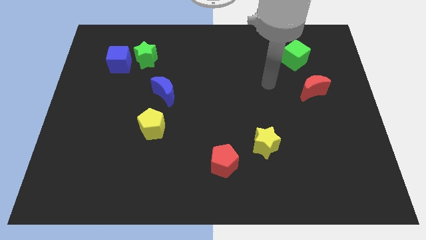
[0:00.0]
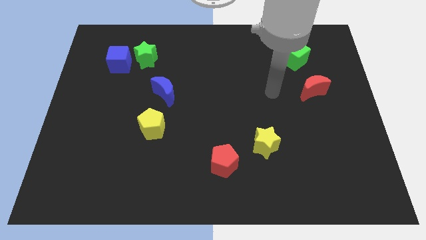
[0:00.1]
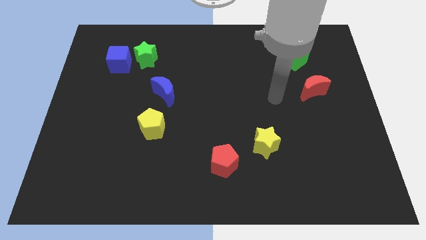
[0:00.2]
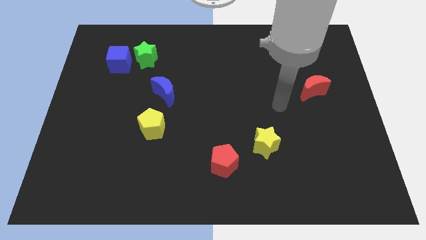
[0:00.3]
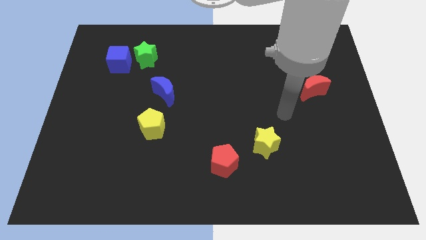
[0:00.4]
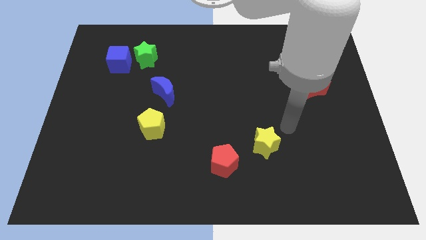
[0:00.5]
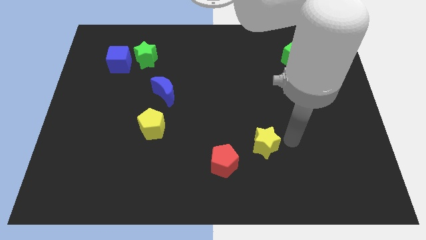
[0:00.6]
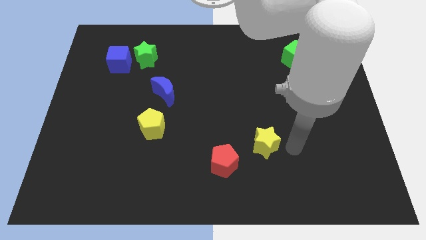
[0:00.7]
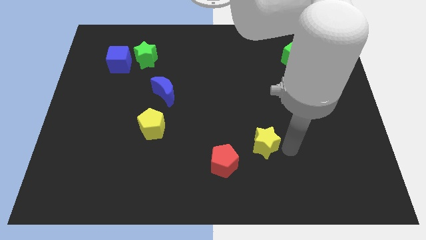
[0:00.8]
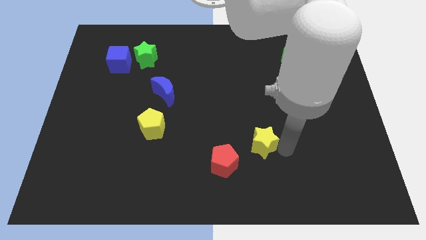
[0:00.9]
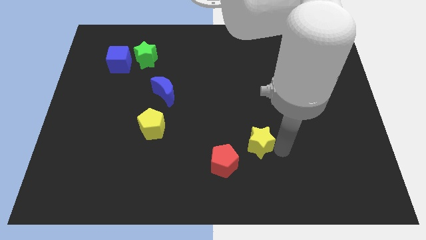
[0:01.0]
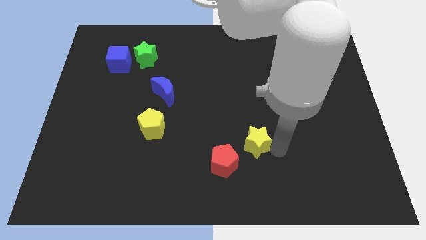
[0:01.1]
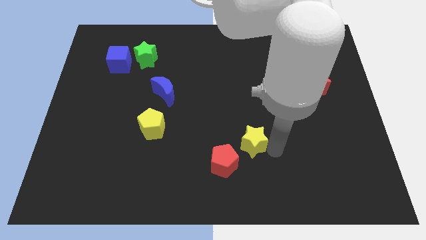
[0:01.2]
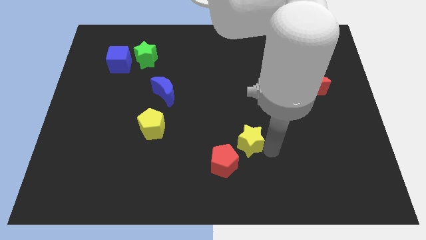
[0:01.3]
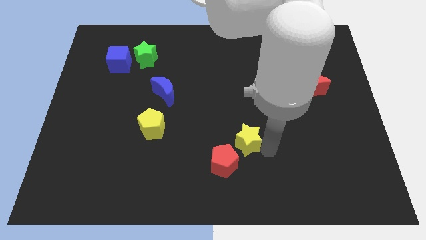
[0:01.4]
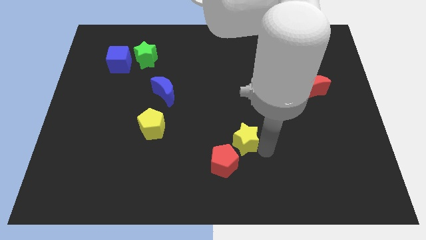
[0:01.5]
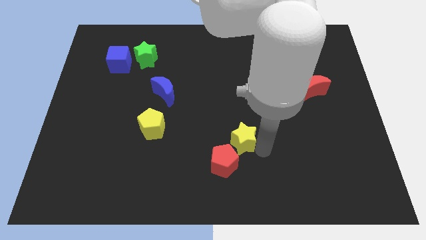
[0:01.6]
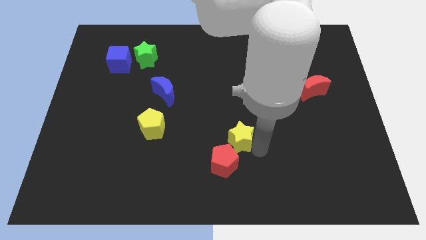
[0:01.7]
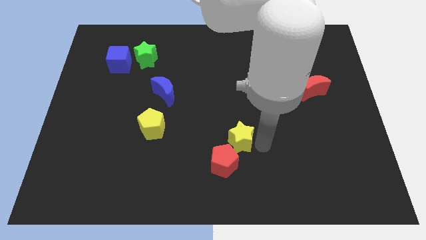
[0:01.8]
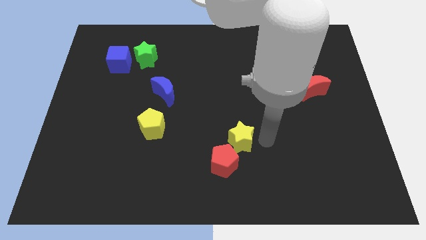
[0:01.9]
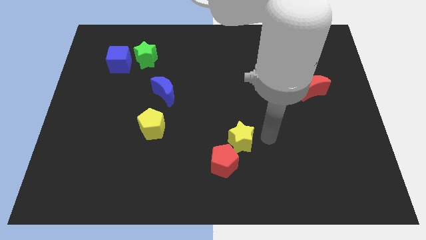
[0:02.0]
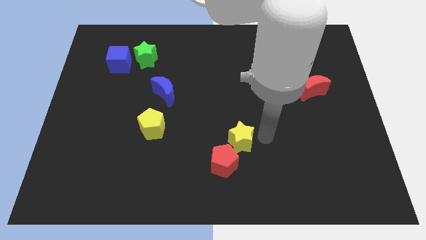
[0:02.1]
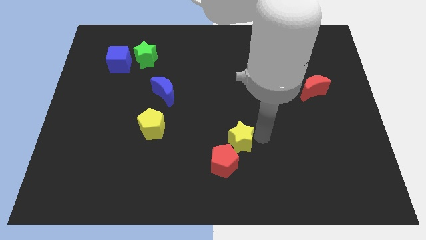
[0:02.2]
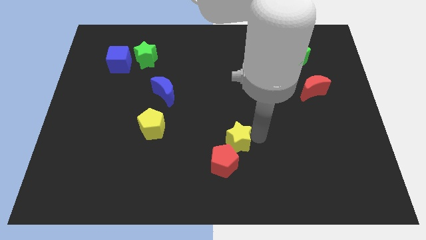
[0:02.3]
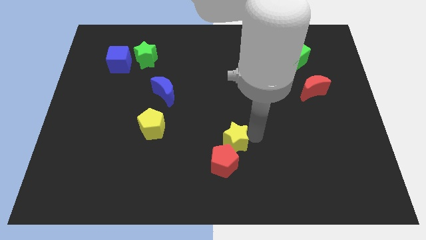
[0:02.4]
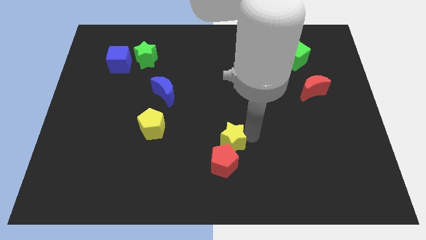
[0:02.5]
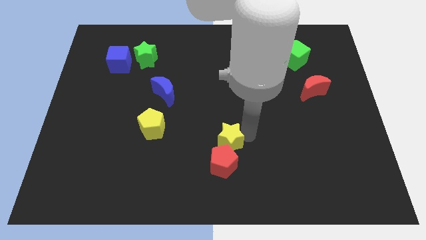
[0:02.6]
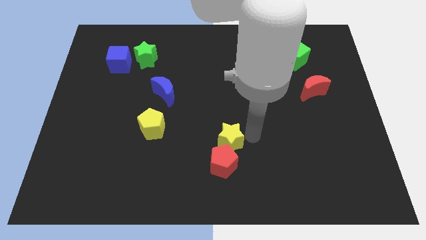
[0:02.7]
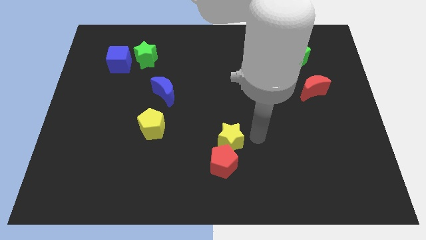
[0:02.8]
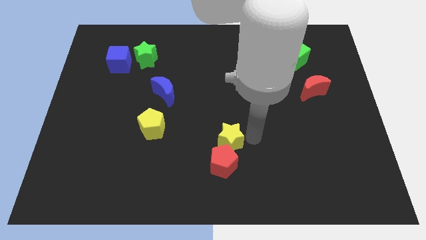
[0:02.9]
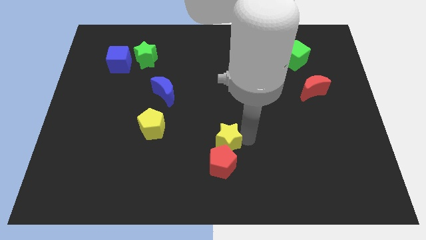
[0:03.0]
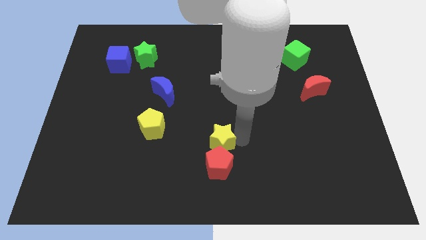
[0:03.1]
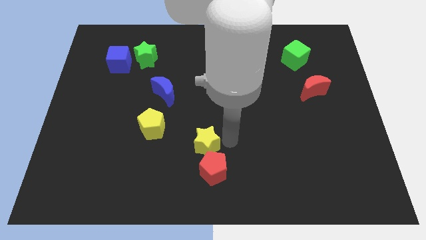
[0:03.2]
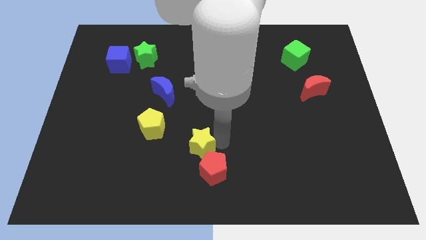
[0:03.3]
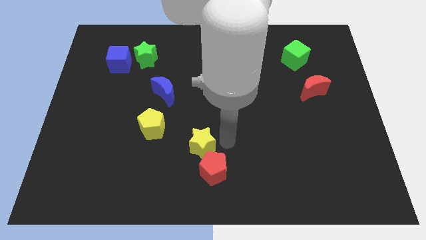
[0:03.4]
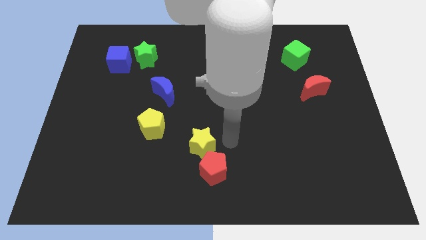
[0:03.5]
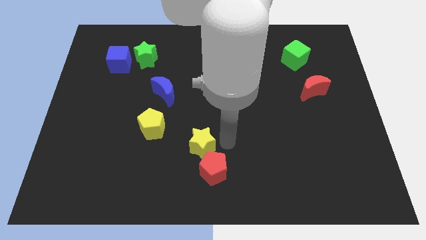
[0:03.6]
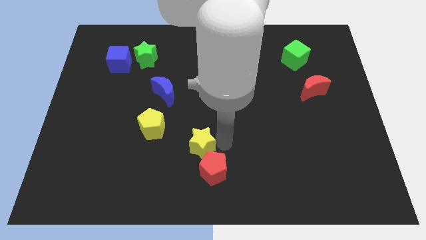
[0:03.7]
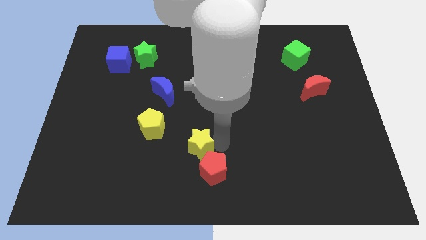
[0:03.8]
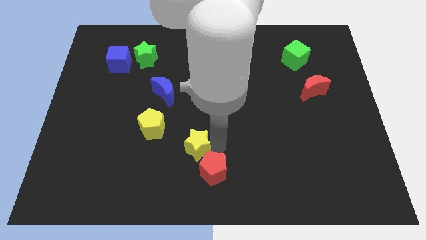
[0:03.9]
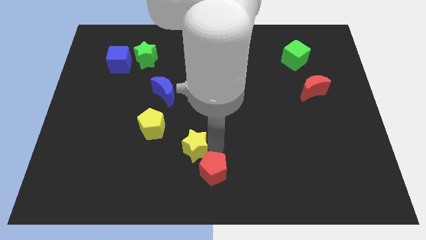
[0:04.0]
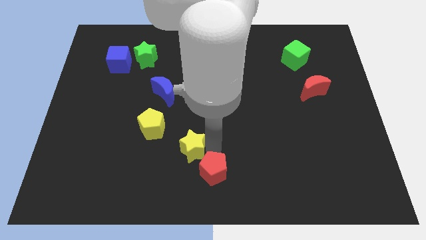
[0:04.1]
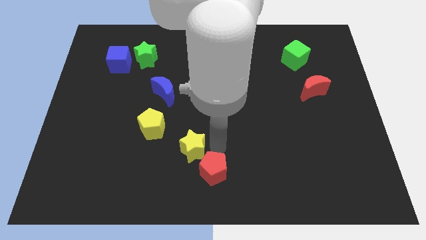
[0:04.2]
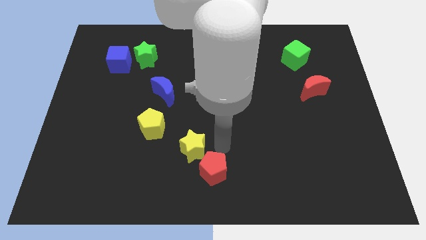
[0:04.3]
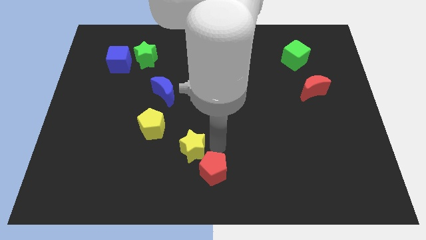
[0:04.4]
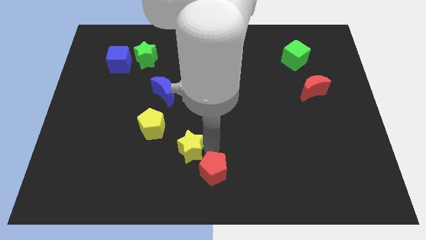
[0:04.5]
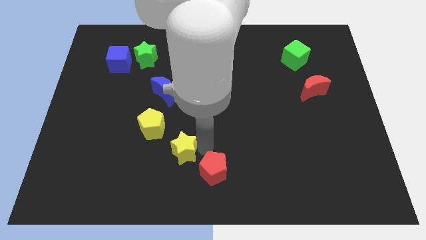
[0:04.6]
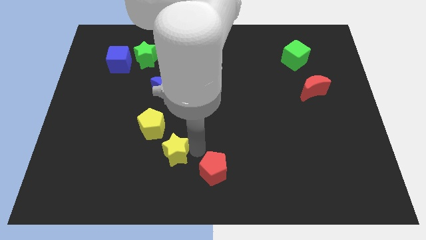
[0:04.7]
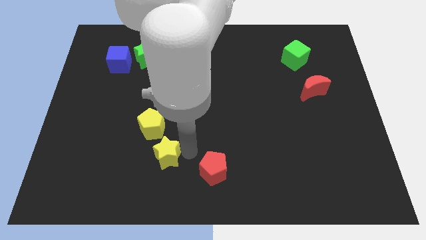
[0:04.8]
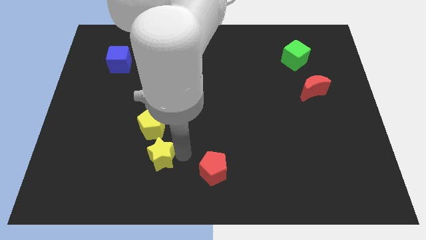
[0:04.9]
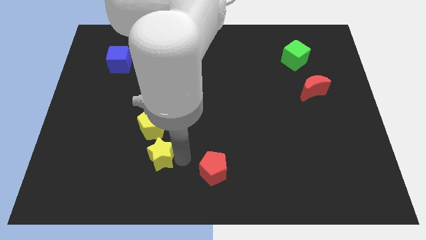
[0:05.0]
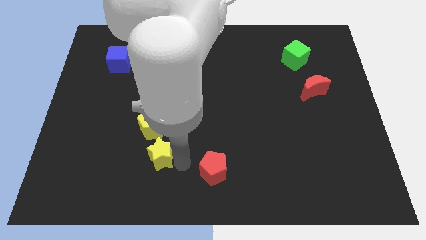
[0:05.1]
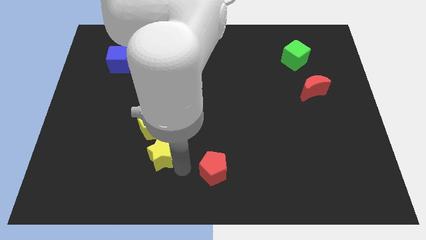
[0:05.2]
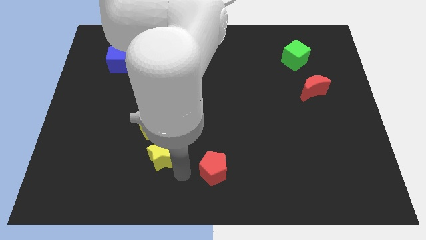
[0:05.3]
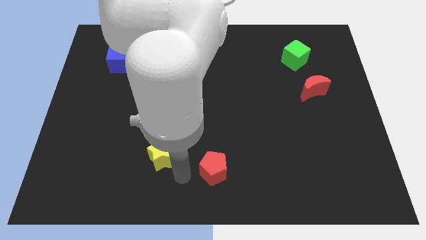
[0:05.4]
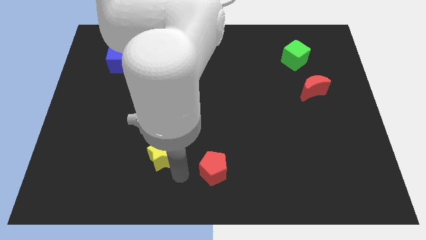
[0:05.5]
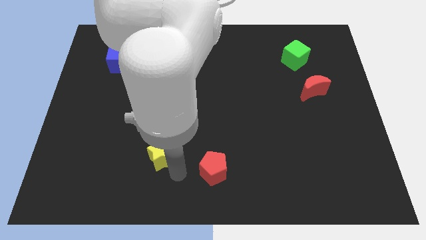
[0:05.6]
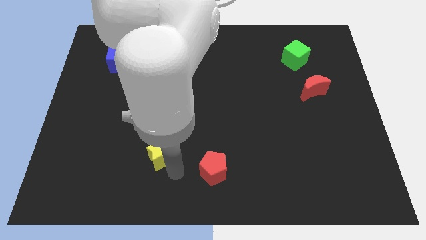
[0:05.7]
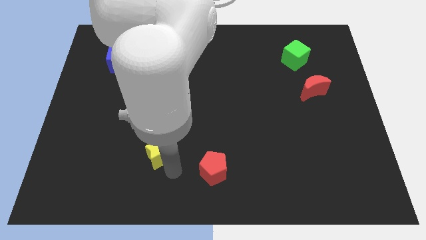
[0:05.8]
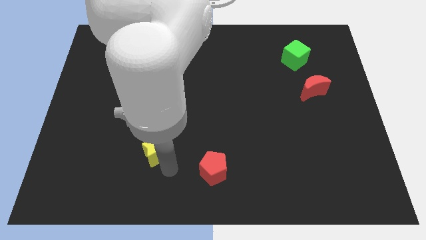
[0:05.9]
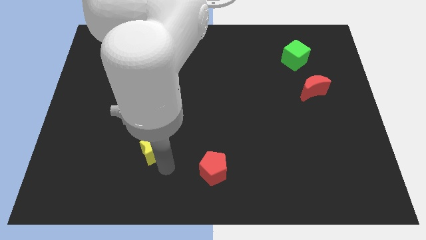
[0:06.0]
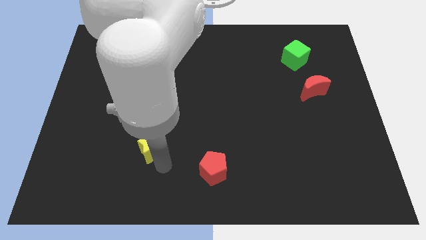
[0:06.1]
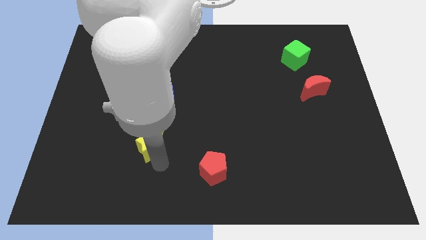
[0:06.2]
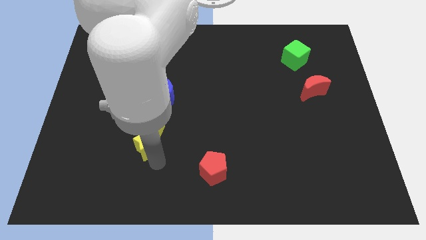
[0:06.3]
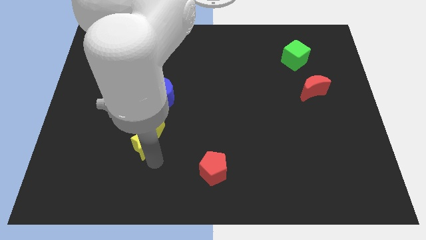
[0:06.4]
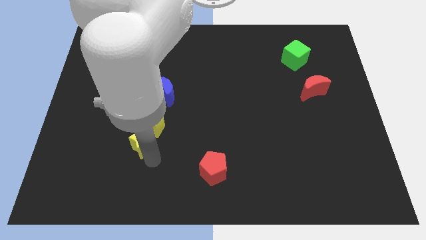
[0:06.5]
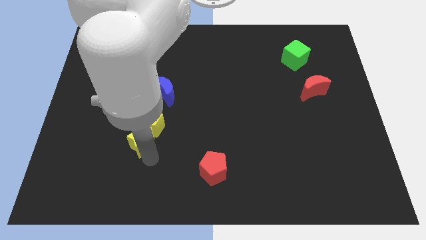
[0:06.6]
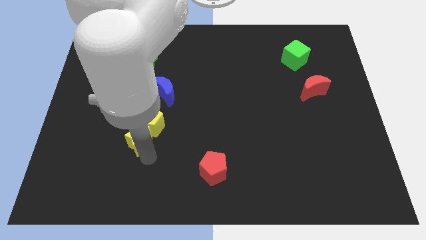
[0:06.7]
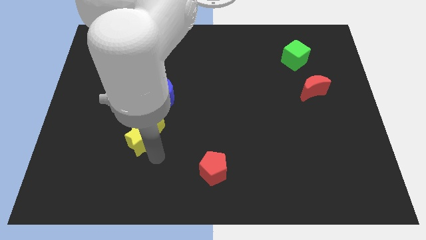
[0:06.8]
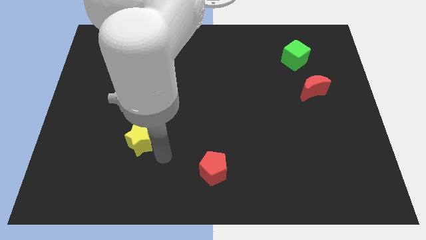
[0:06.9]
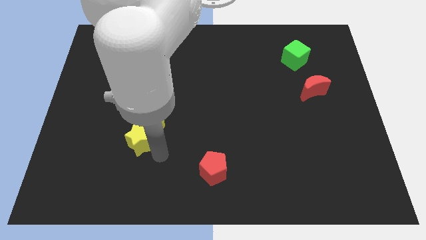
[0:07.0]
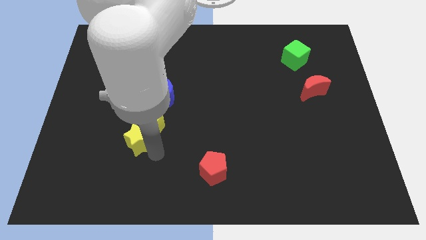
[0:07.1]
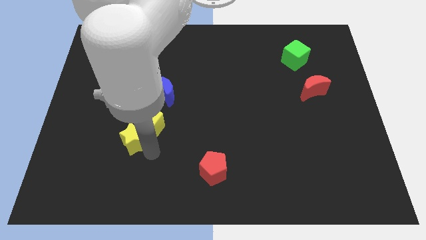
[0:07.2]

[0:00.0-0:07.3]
move the yellow star to the left of the yellow pentagon
